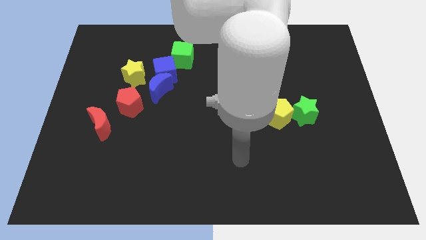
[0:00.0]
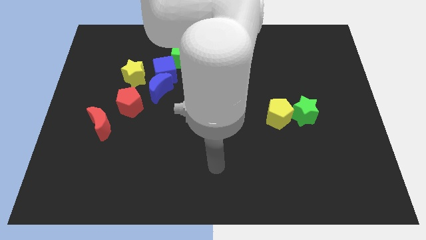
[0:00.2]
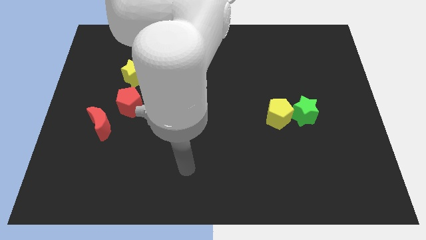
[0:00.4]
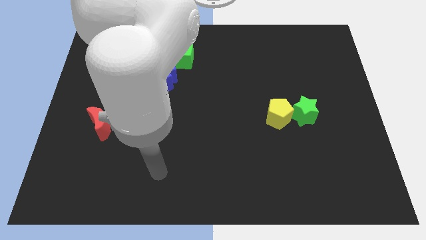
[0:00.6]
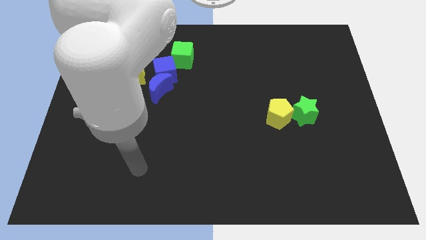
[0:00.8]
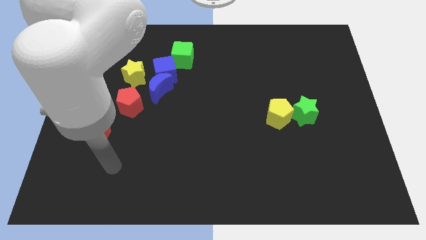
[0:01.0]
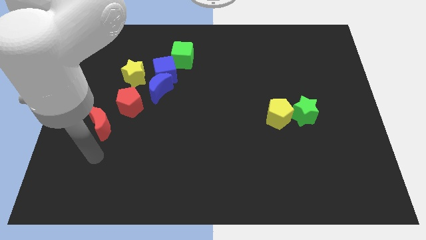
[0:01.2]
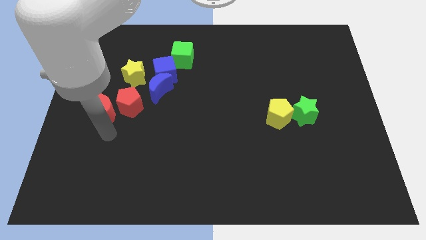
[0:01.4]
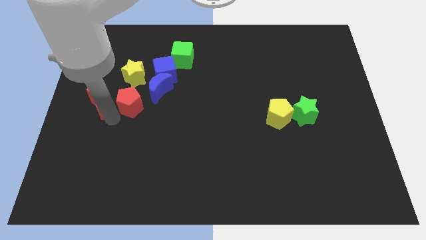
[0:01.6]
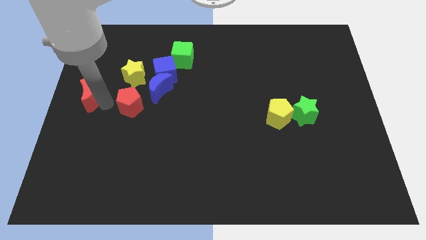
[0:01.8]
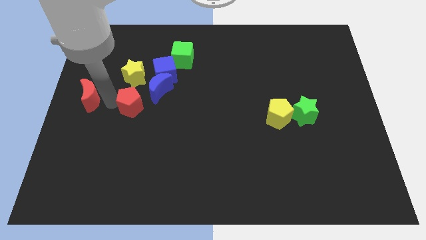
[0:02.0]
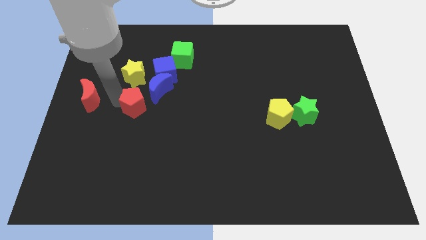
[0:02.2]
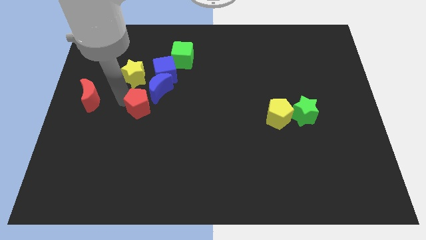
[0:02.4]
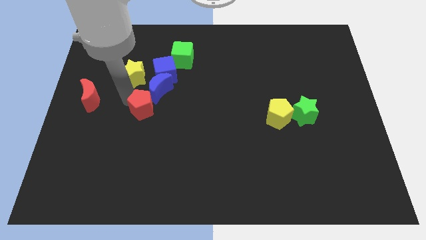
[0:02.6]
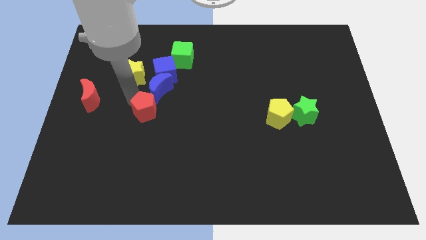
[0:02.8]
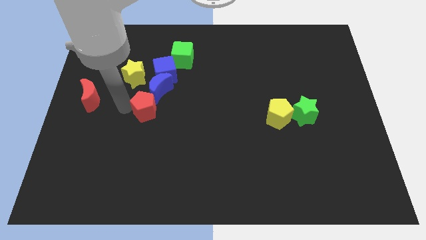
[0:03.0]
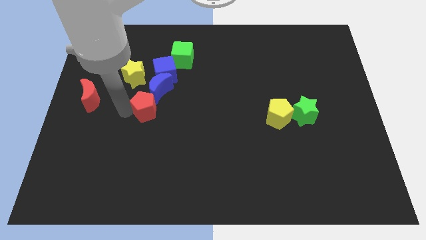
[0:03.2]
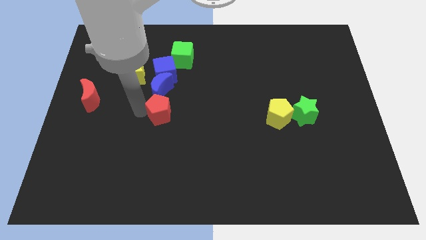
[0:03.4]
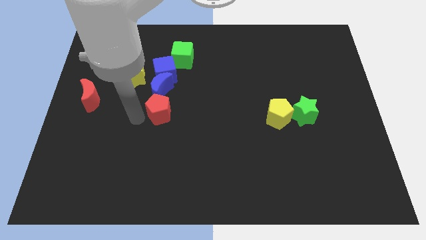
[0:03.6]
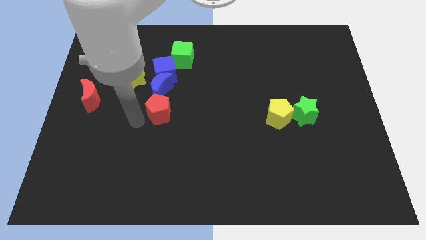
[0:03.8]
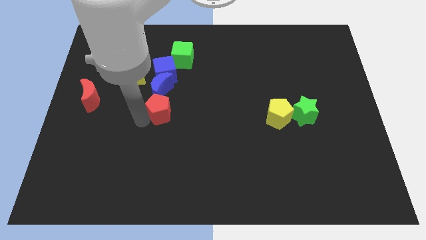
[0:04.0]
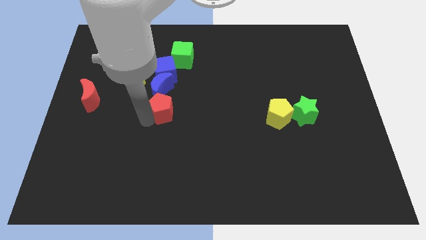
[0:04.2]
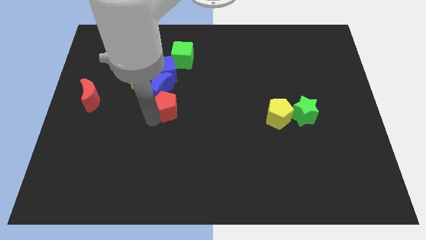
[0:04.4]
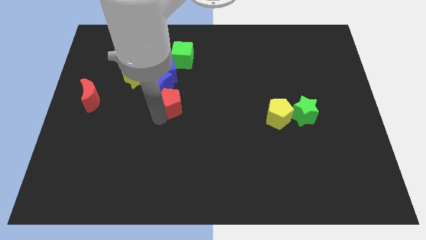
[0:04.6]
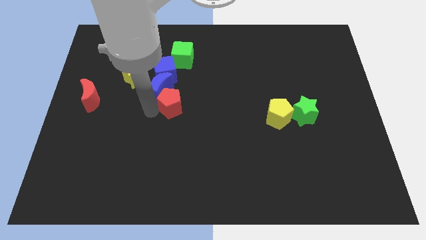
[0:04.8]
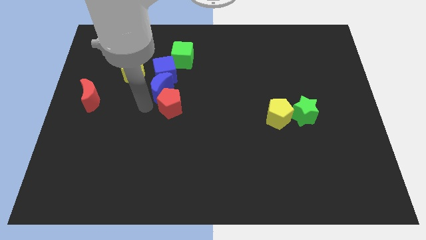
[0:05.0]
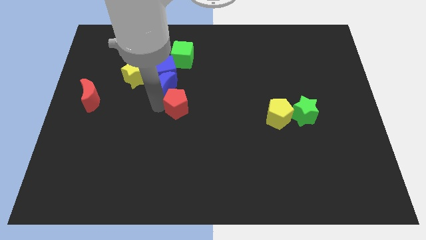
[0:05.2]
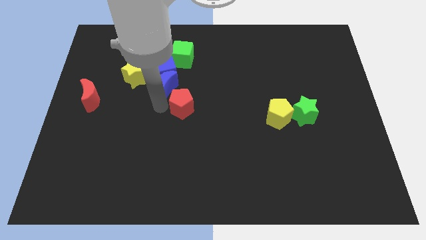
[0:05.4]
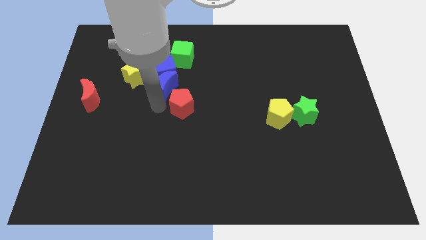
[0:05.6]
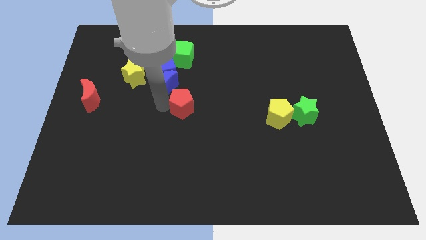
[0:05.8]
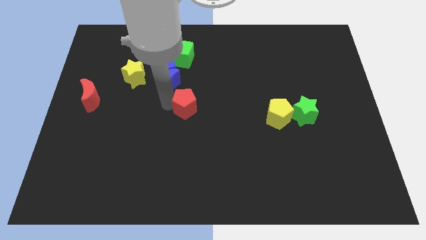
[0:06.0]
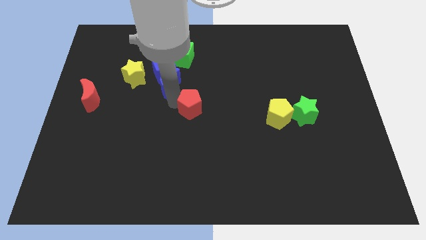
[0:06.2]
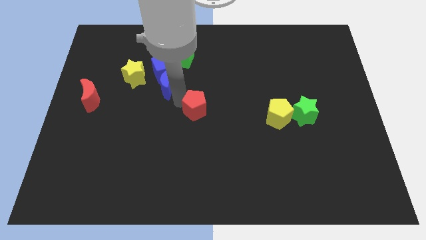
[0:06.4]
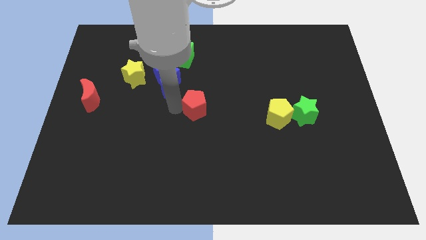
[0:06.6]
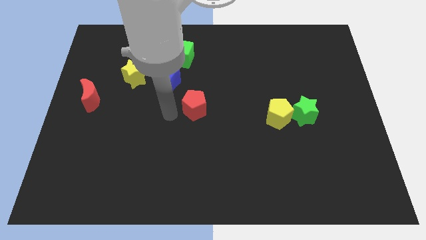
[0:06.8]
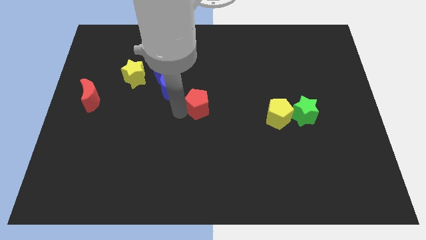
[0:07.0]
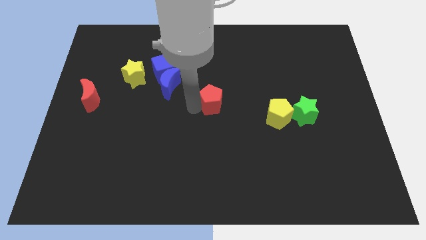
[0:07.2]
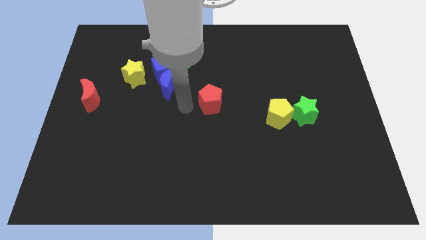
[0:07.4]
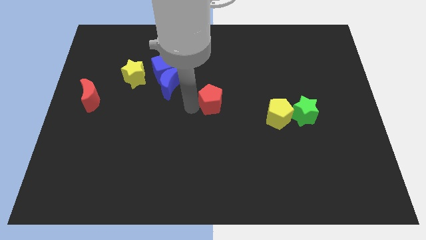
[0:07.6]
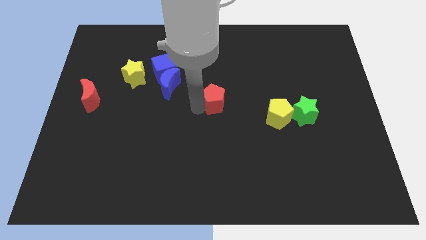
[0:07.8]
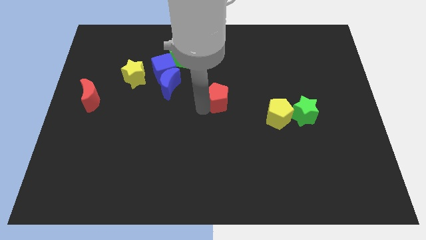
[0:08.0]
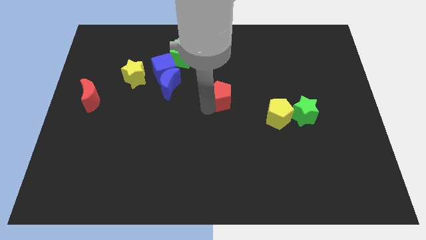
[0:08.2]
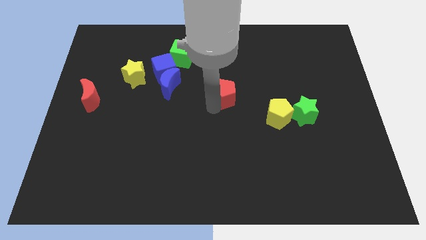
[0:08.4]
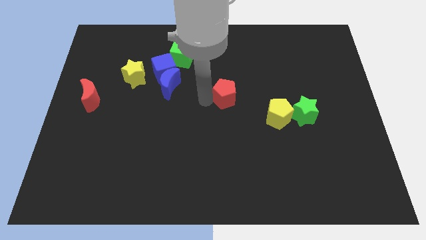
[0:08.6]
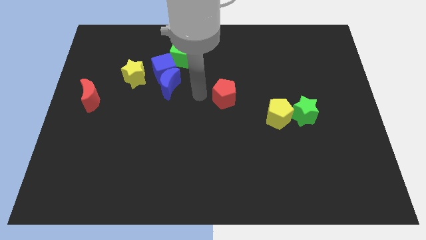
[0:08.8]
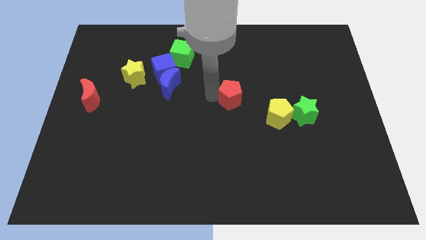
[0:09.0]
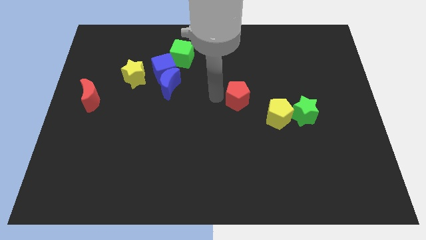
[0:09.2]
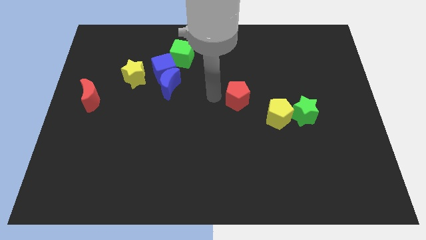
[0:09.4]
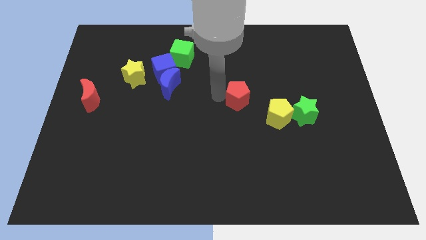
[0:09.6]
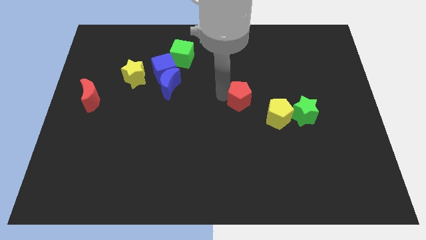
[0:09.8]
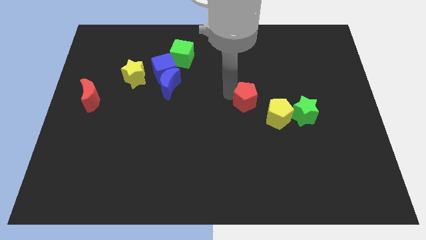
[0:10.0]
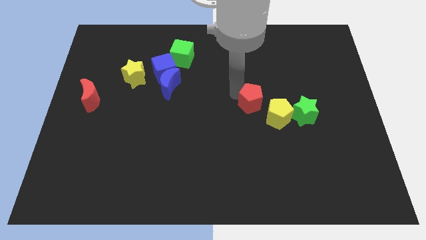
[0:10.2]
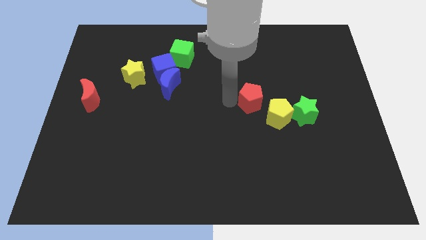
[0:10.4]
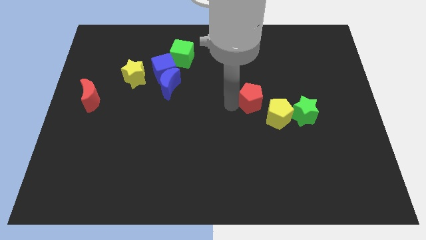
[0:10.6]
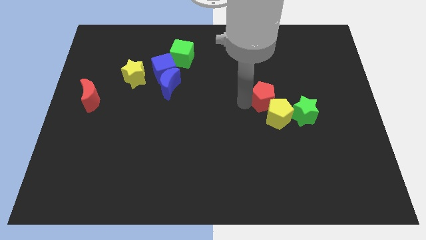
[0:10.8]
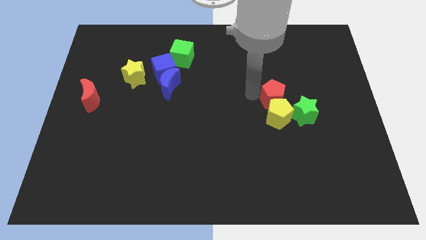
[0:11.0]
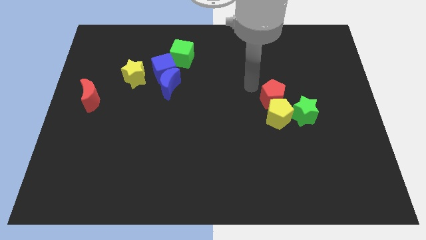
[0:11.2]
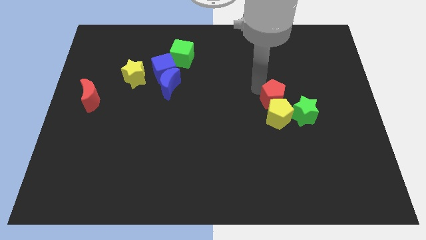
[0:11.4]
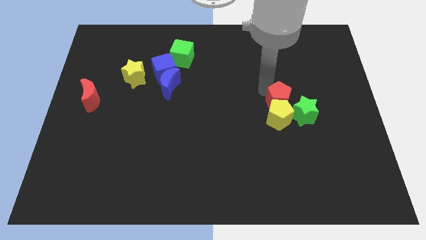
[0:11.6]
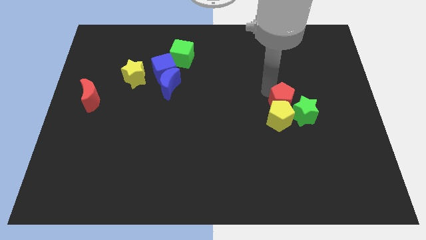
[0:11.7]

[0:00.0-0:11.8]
slide the red pentagon towards the green star

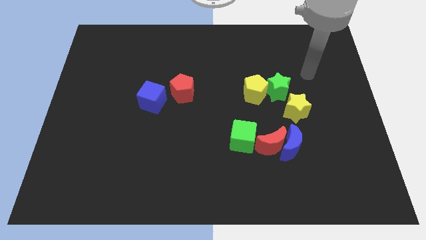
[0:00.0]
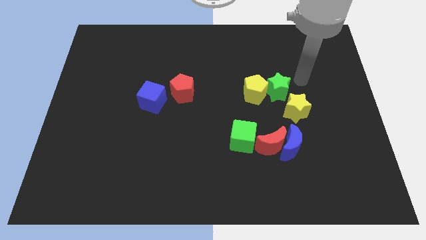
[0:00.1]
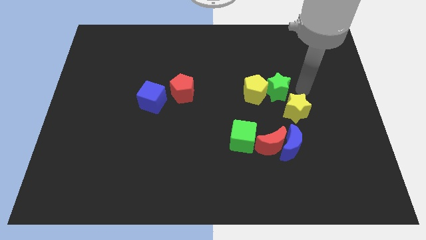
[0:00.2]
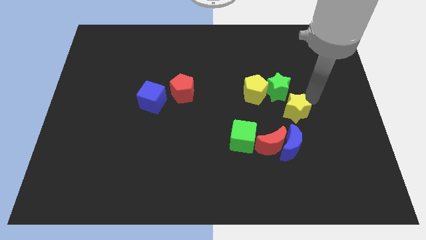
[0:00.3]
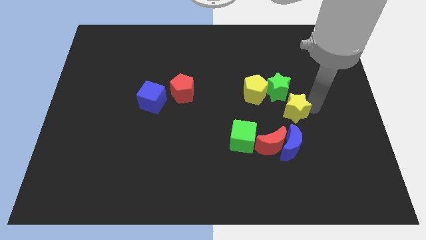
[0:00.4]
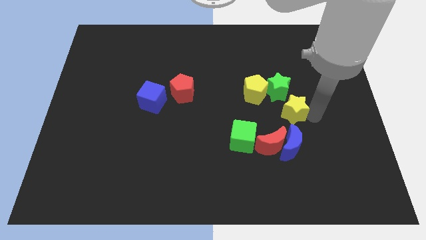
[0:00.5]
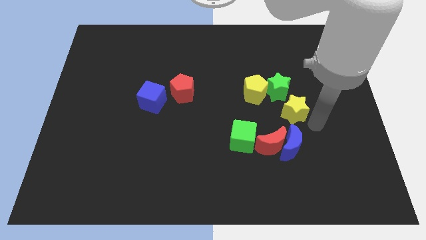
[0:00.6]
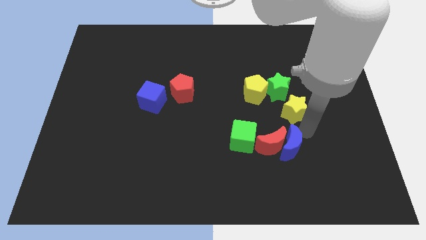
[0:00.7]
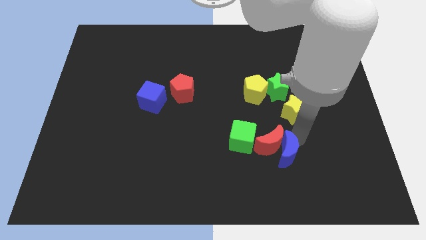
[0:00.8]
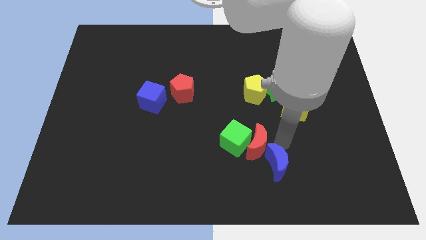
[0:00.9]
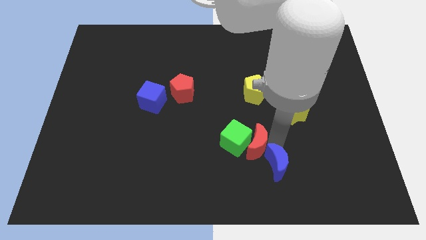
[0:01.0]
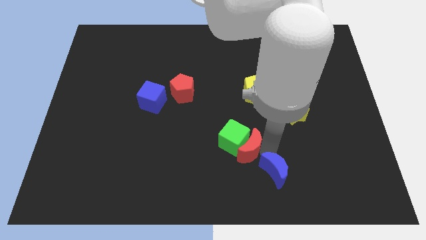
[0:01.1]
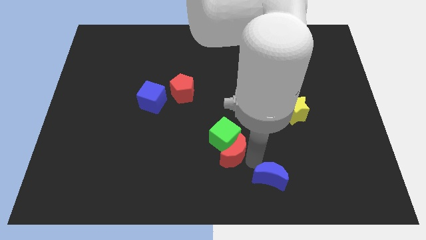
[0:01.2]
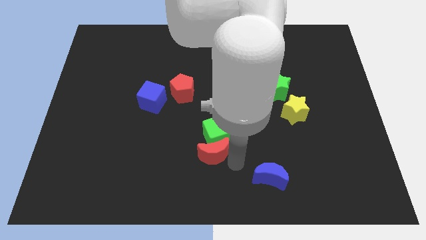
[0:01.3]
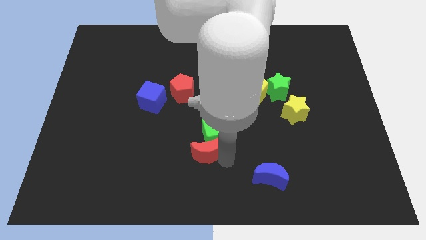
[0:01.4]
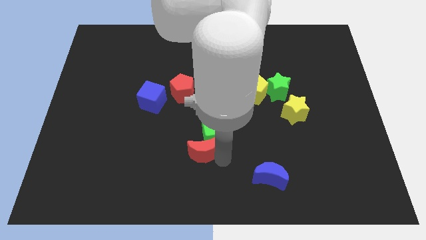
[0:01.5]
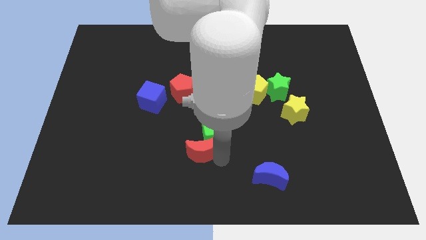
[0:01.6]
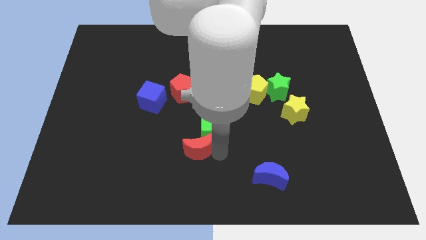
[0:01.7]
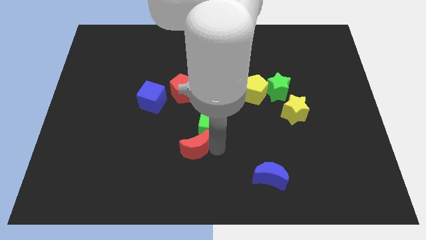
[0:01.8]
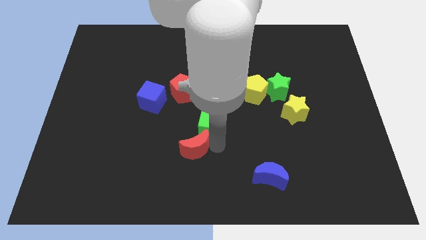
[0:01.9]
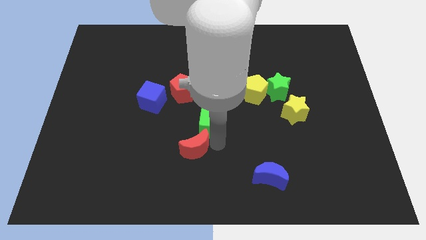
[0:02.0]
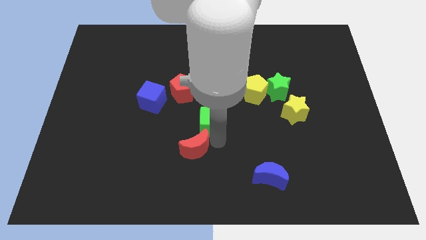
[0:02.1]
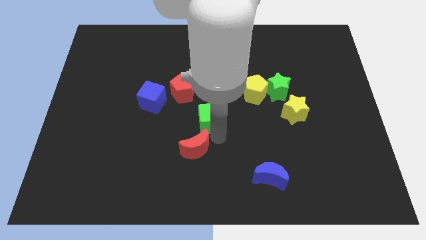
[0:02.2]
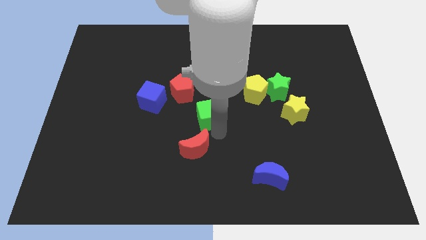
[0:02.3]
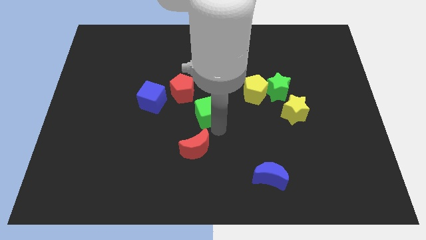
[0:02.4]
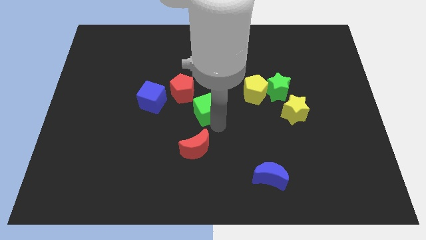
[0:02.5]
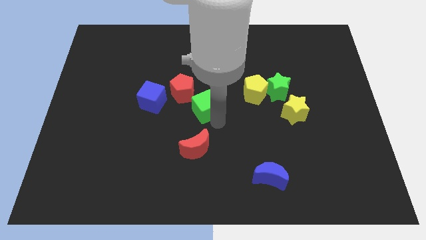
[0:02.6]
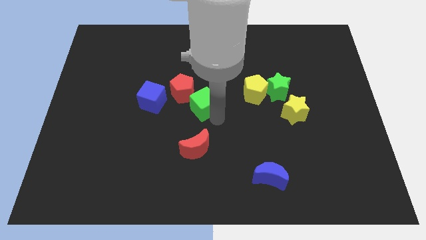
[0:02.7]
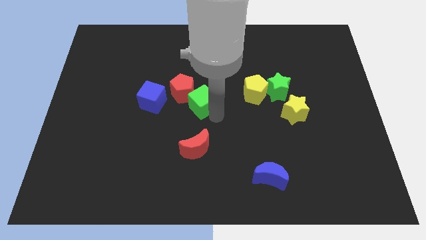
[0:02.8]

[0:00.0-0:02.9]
move the green cube next to the red pentagon
